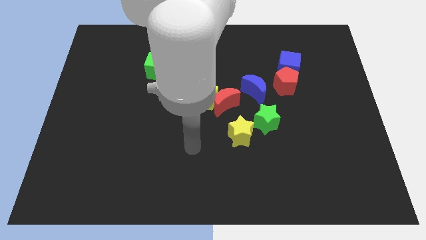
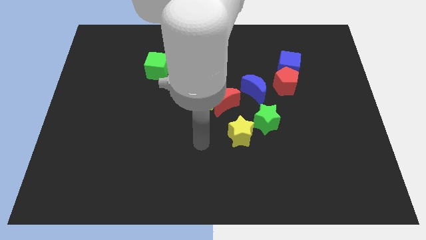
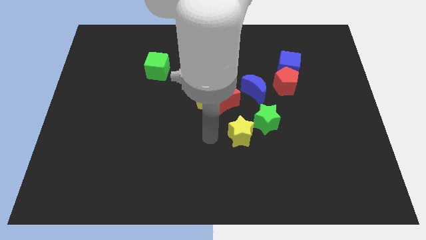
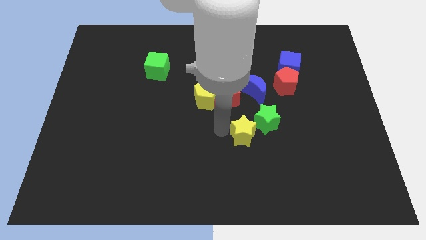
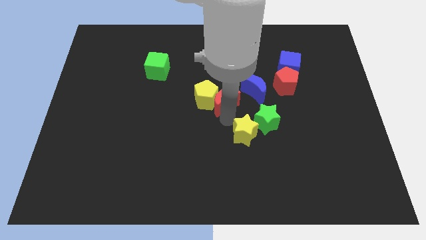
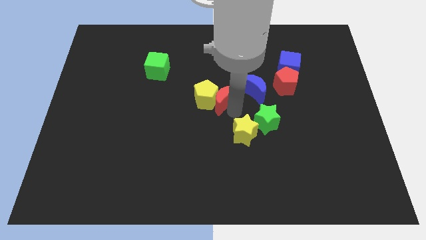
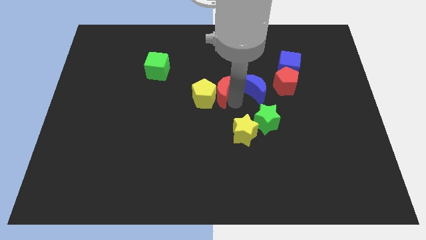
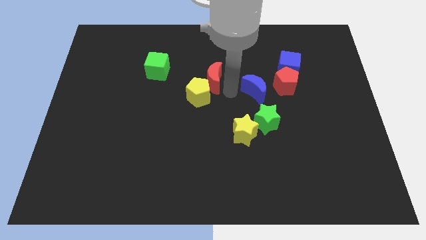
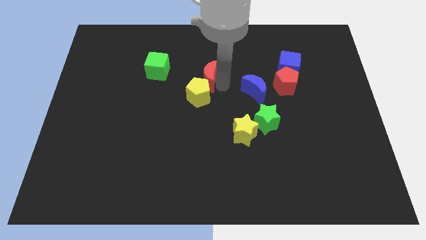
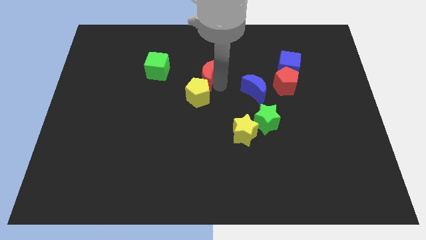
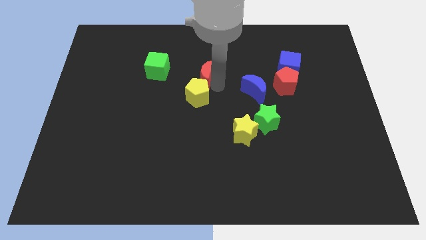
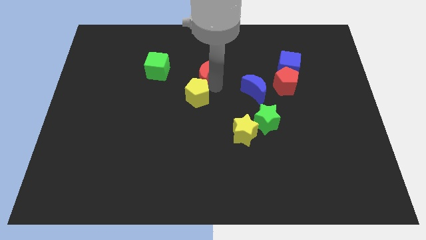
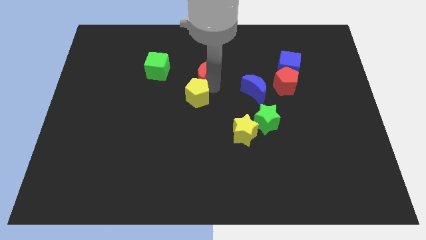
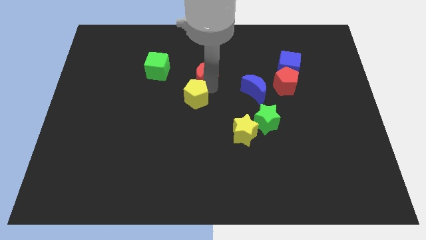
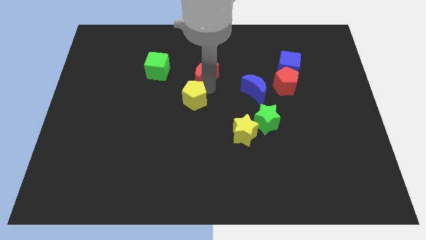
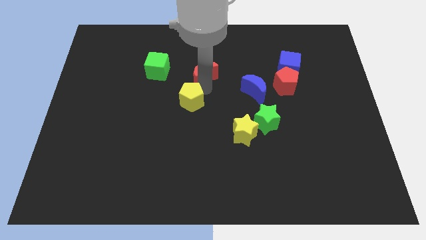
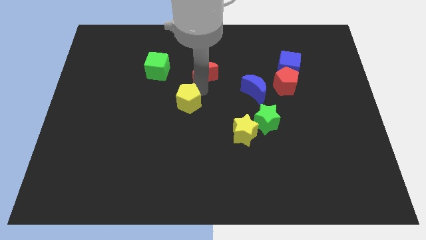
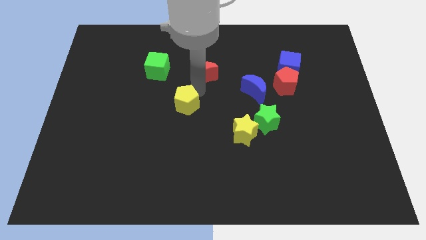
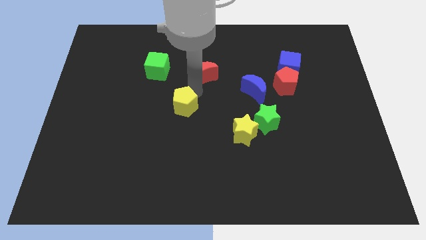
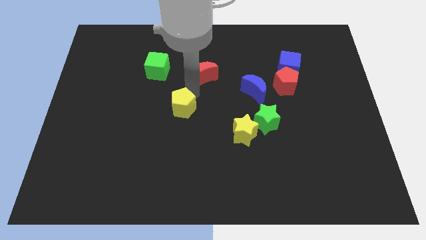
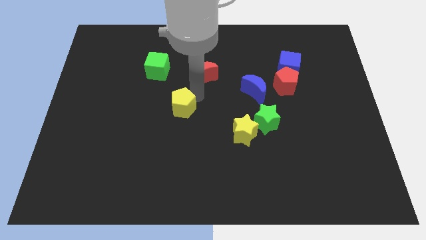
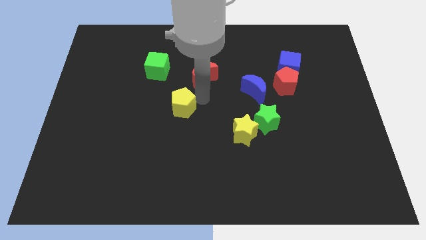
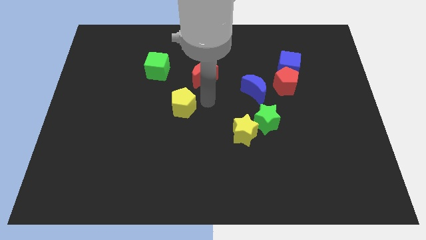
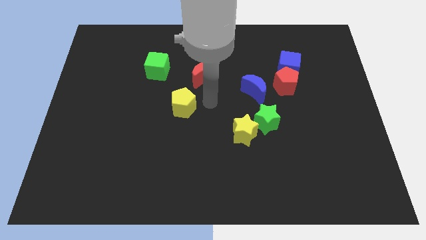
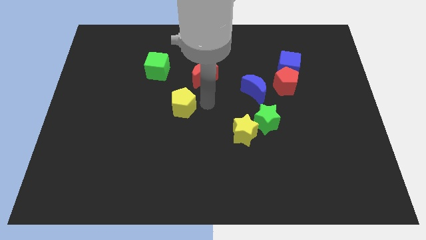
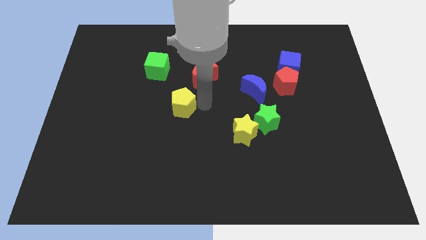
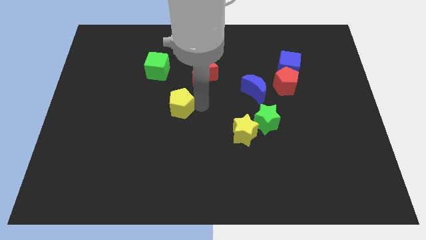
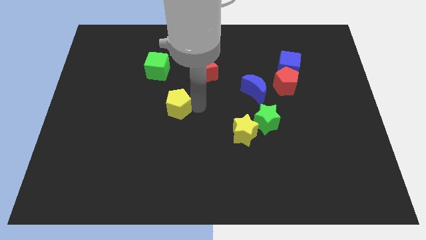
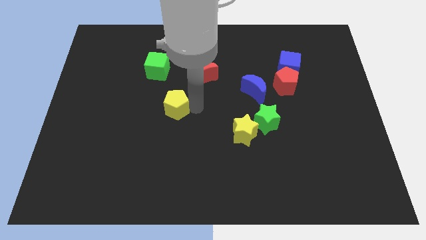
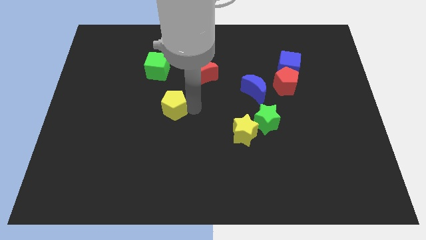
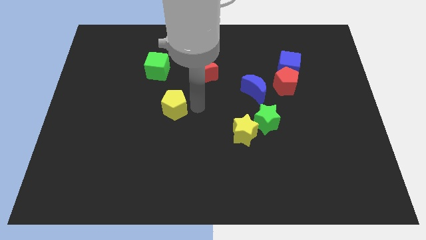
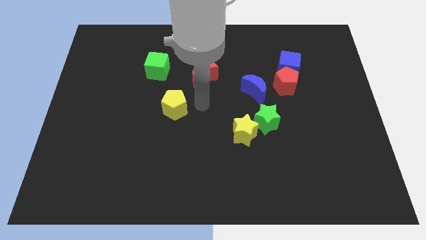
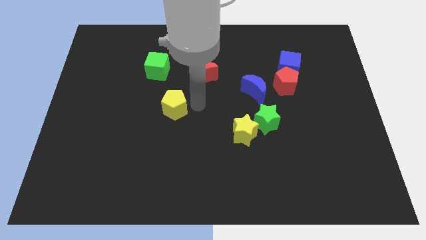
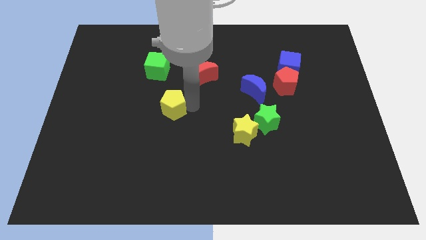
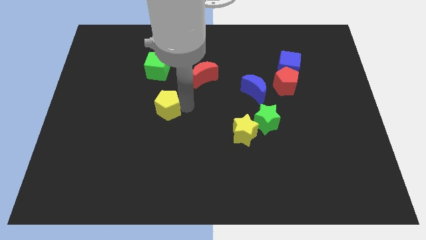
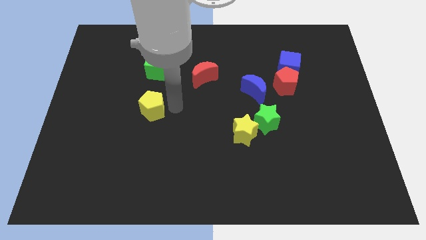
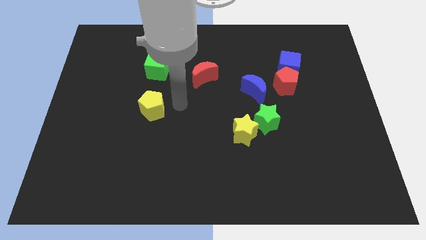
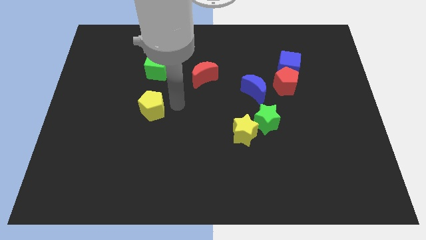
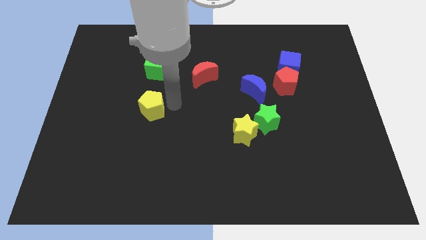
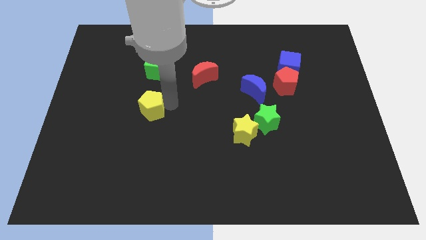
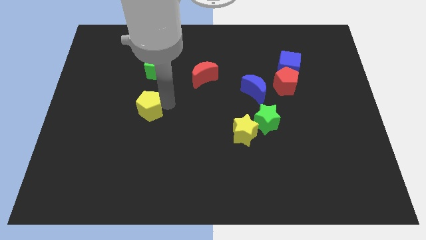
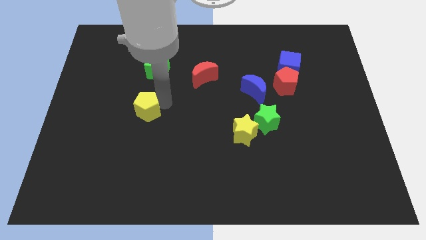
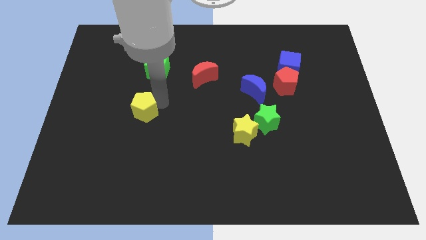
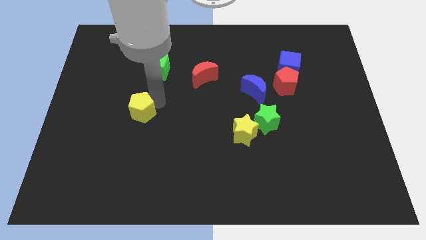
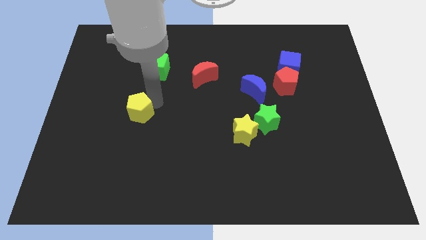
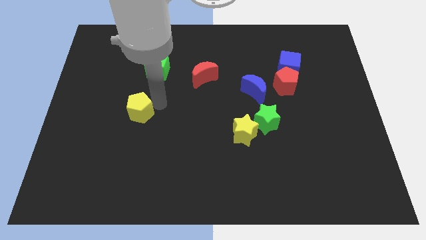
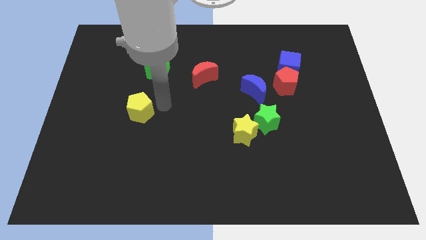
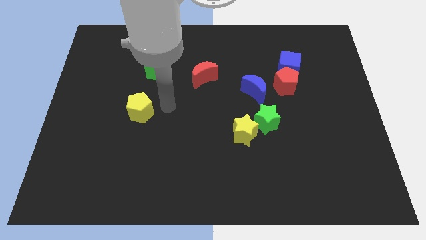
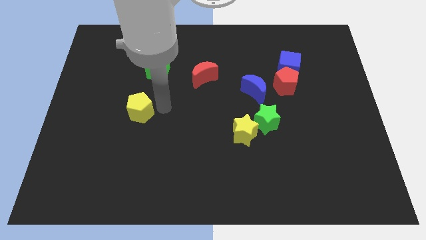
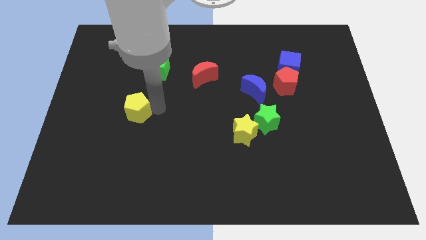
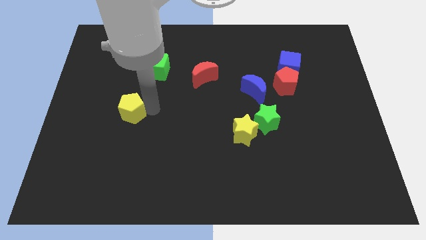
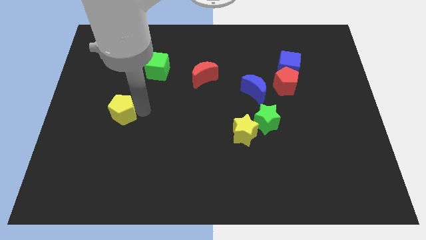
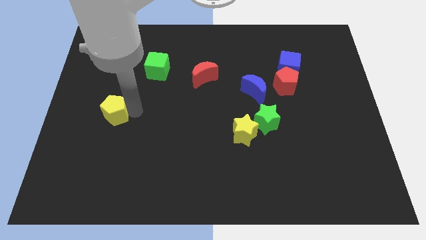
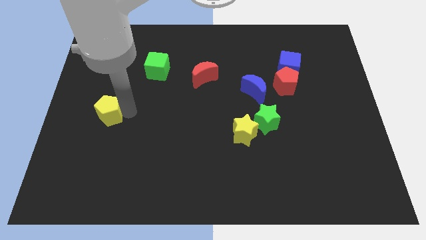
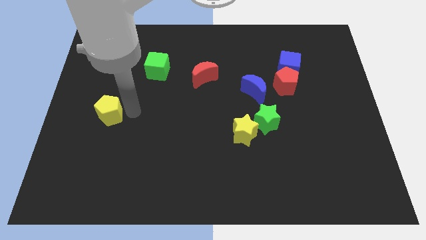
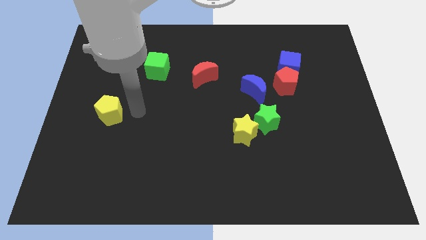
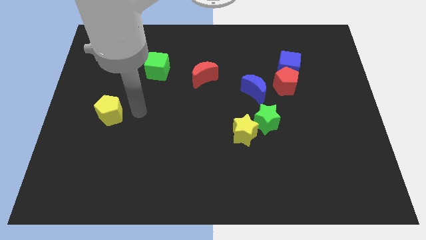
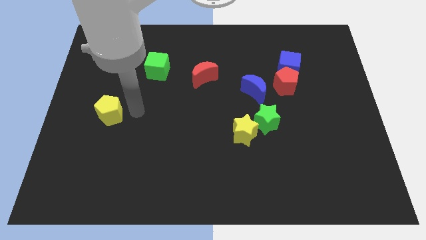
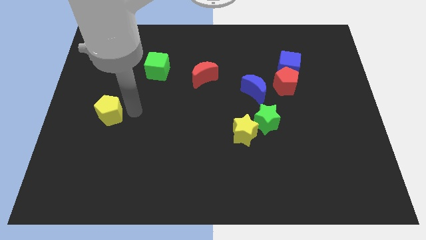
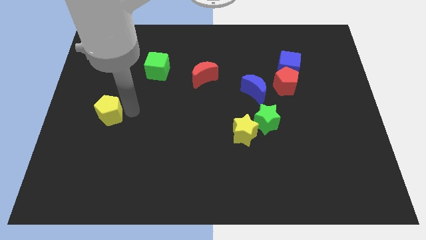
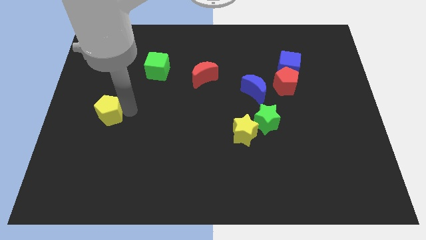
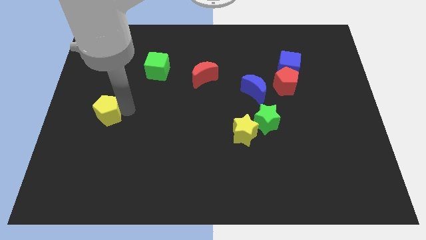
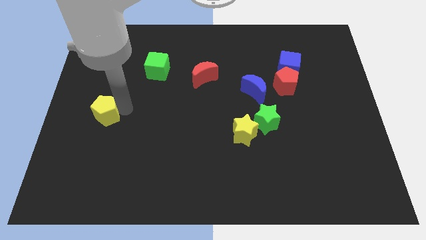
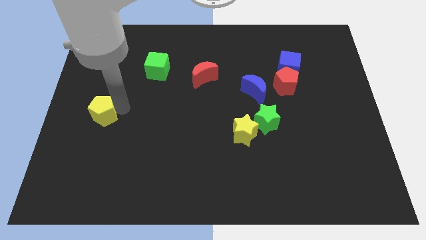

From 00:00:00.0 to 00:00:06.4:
move the yellow pentagon to the left side of the board
